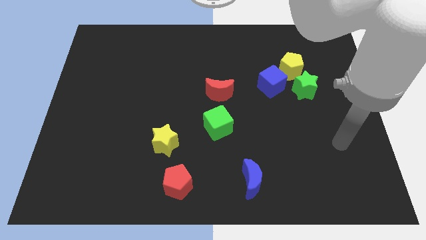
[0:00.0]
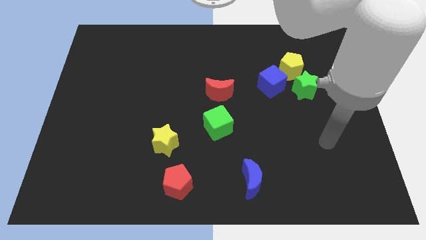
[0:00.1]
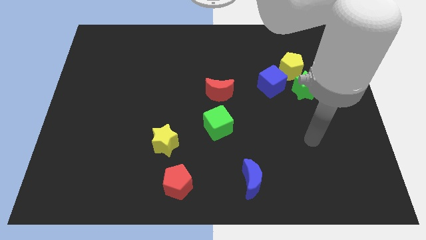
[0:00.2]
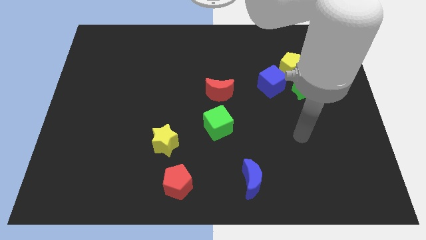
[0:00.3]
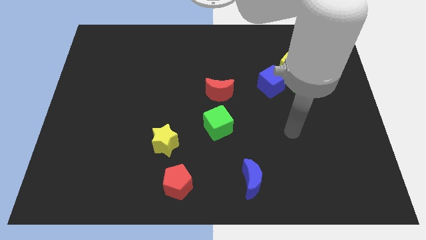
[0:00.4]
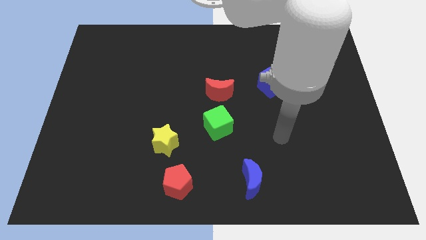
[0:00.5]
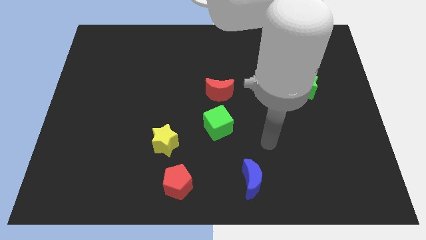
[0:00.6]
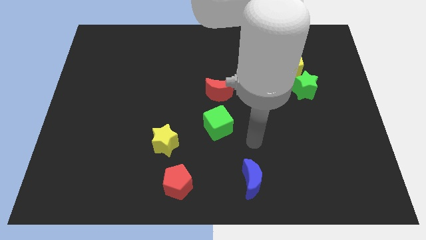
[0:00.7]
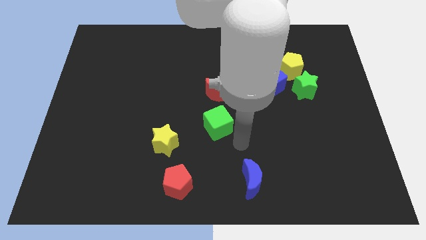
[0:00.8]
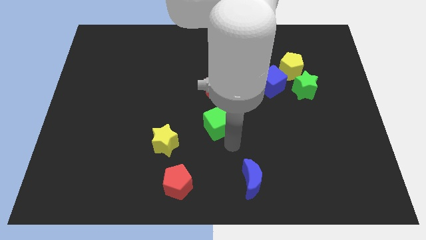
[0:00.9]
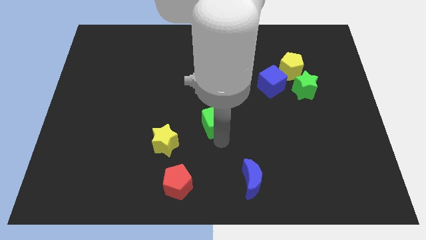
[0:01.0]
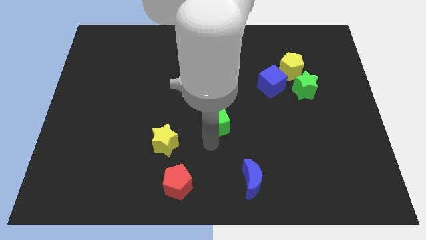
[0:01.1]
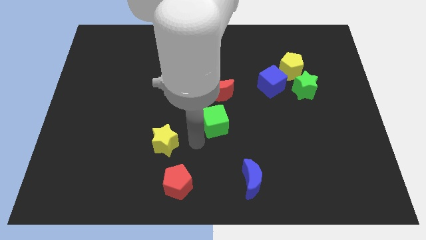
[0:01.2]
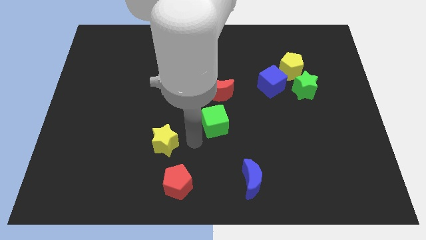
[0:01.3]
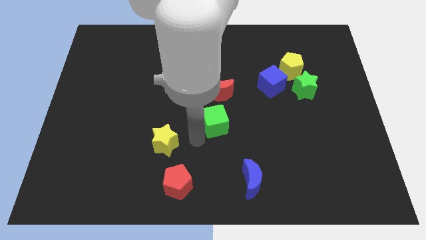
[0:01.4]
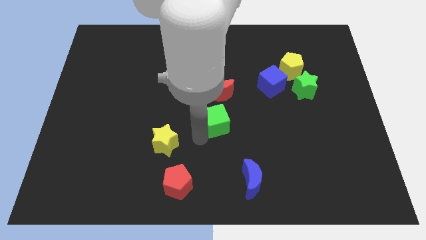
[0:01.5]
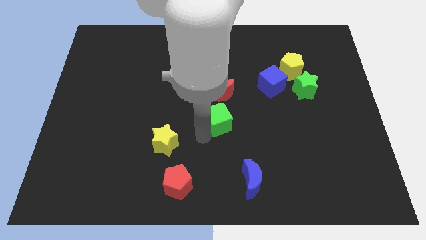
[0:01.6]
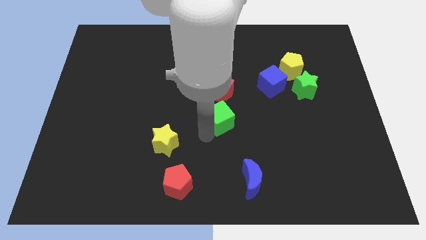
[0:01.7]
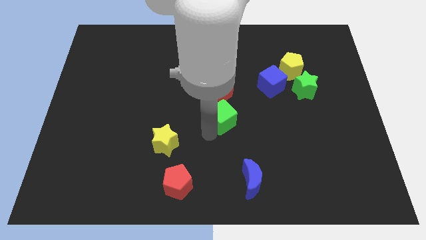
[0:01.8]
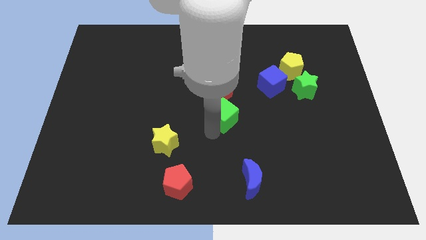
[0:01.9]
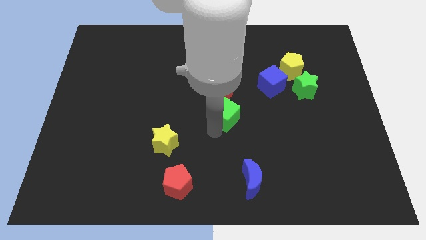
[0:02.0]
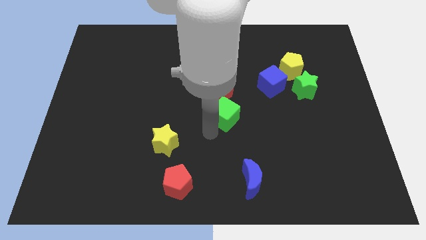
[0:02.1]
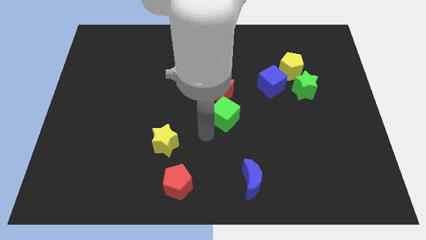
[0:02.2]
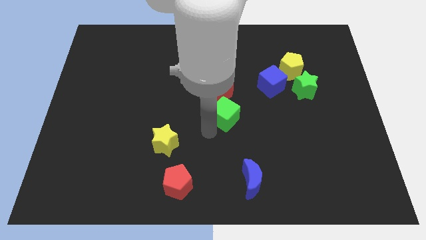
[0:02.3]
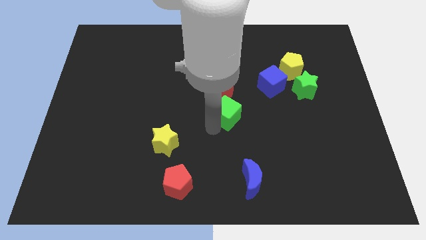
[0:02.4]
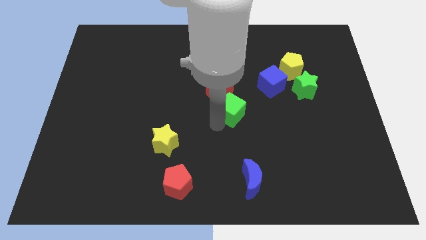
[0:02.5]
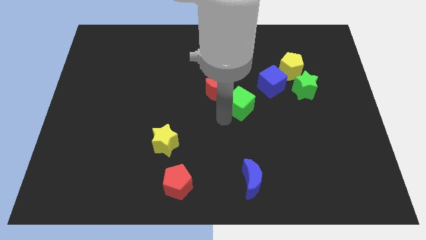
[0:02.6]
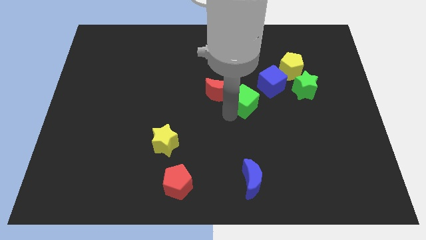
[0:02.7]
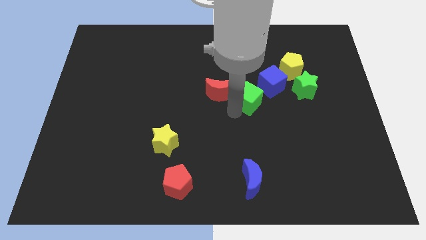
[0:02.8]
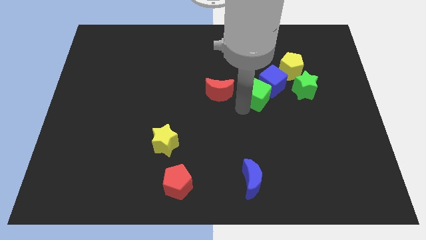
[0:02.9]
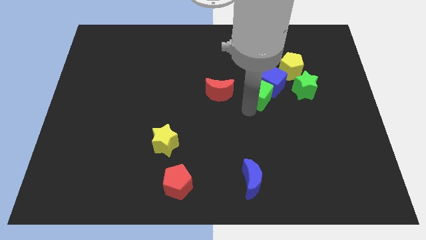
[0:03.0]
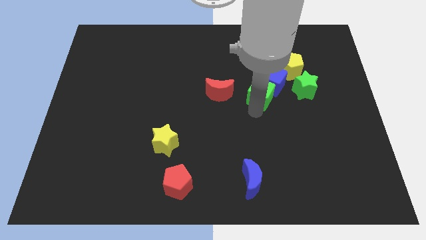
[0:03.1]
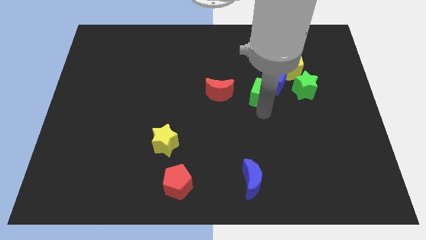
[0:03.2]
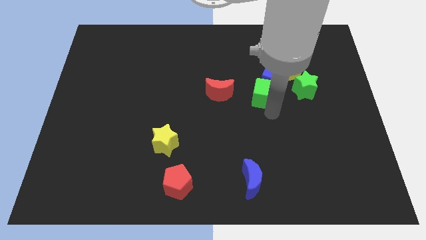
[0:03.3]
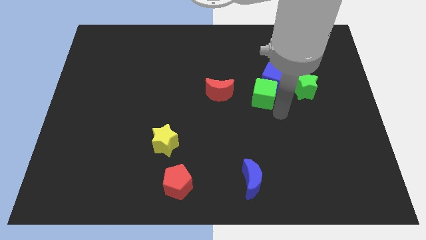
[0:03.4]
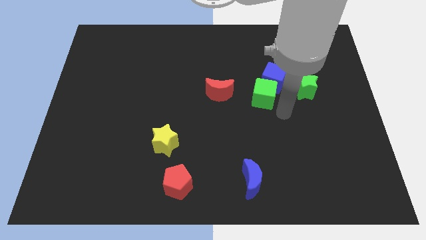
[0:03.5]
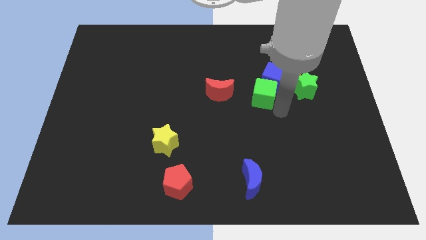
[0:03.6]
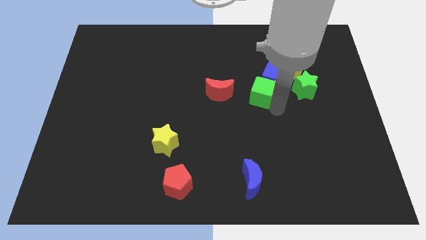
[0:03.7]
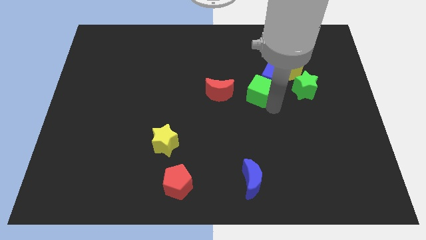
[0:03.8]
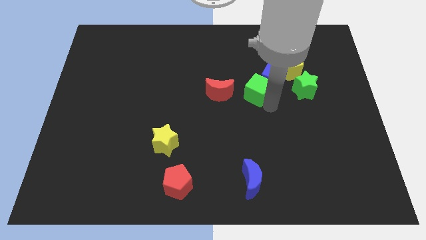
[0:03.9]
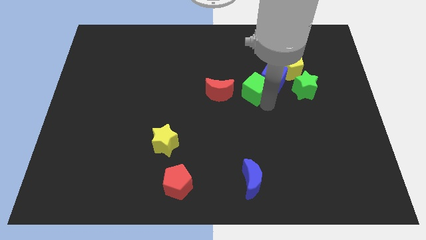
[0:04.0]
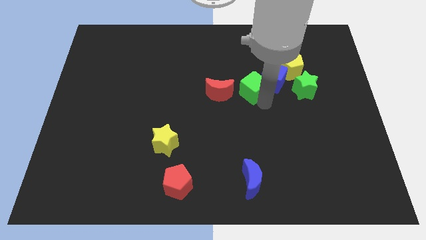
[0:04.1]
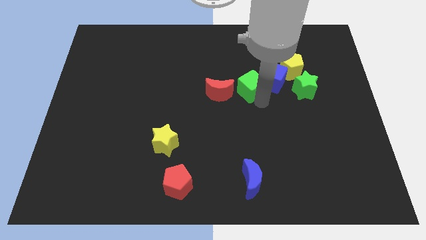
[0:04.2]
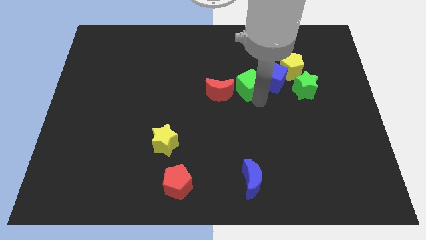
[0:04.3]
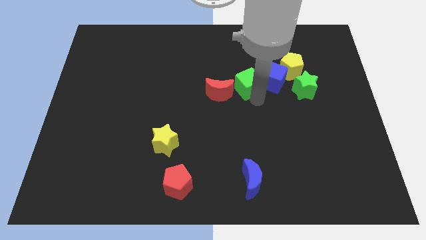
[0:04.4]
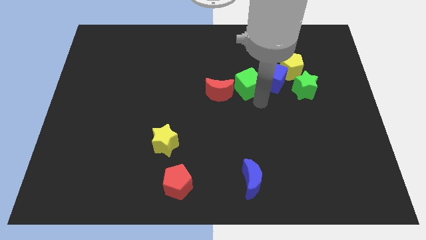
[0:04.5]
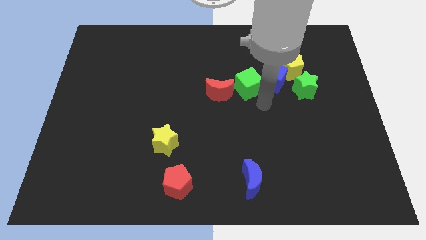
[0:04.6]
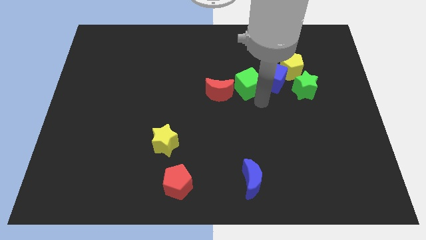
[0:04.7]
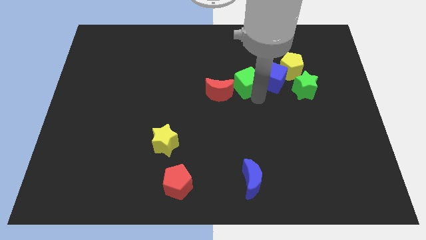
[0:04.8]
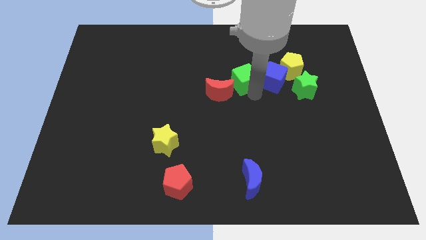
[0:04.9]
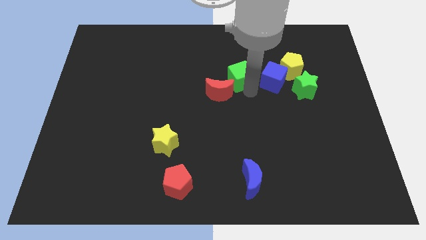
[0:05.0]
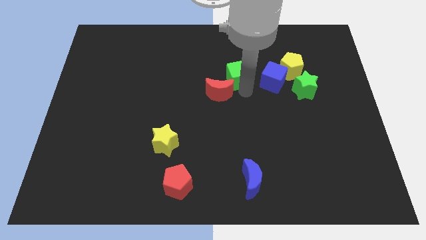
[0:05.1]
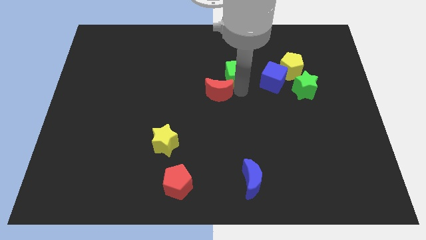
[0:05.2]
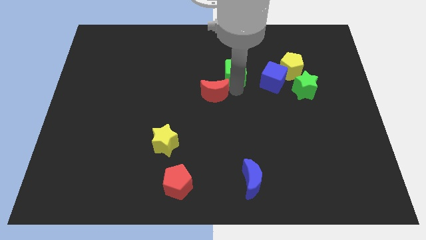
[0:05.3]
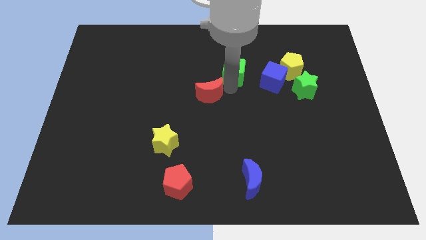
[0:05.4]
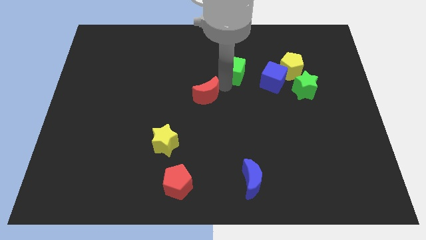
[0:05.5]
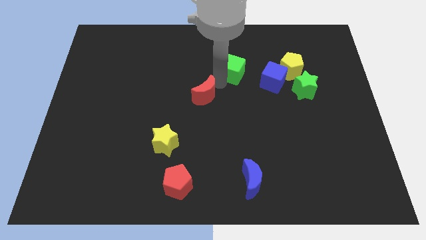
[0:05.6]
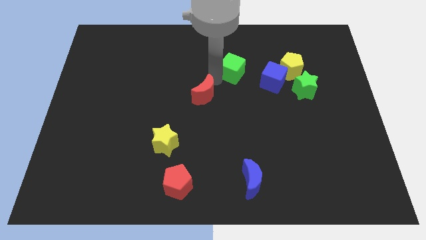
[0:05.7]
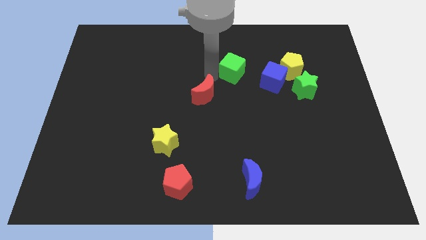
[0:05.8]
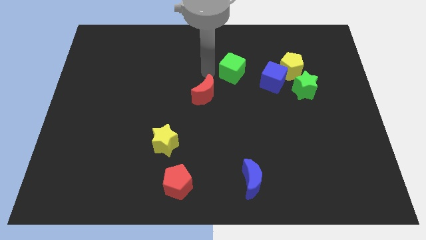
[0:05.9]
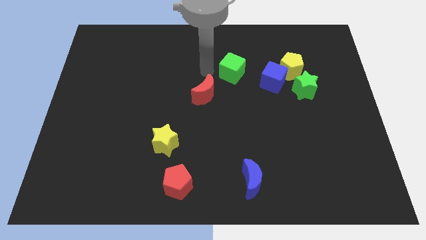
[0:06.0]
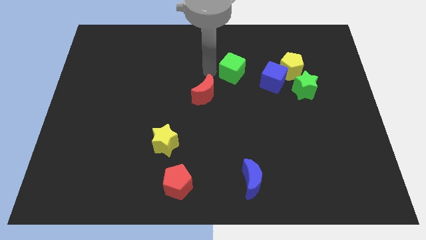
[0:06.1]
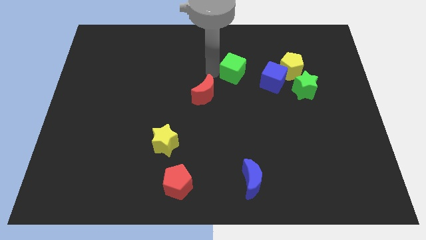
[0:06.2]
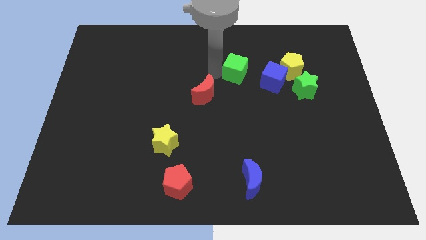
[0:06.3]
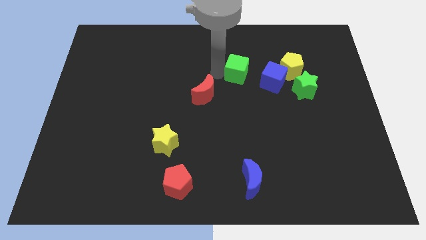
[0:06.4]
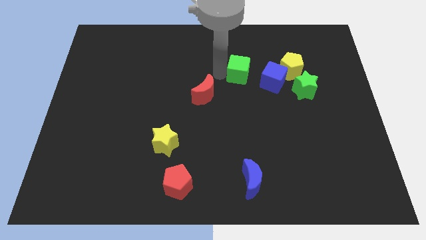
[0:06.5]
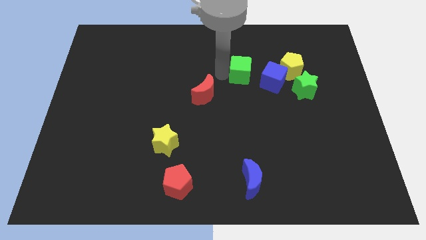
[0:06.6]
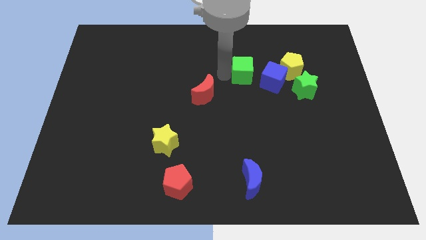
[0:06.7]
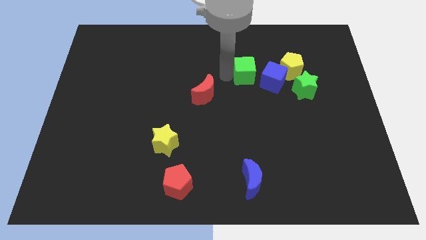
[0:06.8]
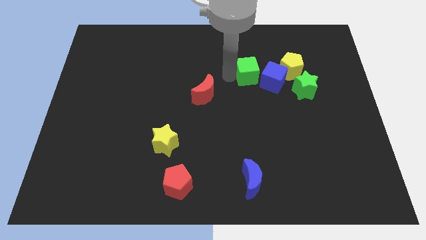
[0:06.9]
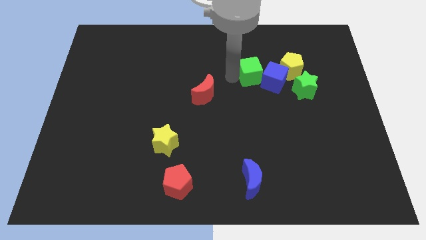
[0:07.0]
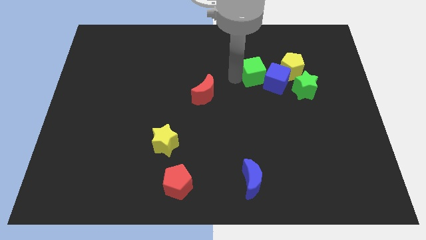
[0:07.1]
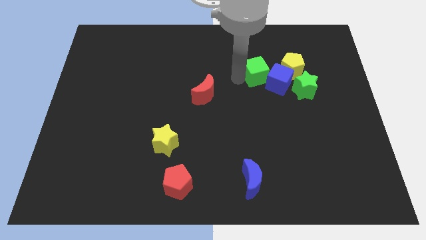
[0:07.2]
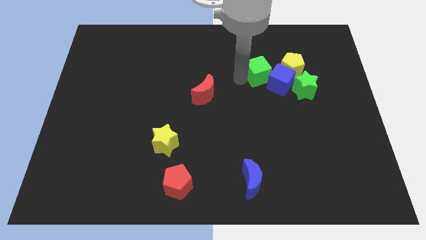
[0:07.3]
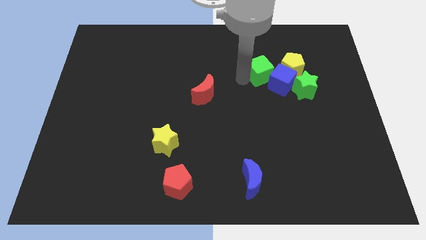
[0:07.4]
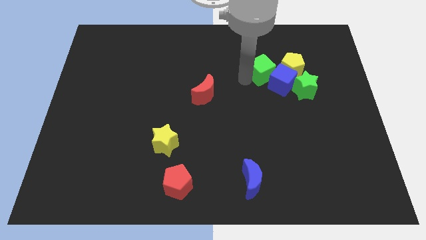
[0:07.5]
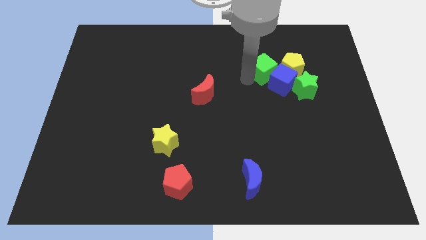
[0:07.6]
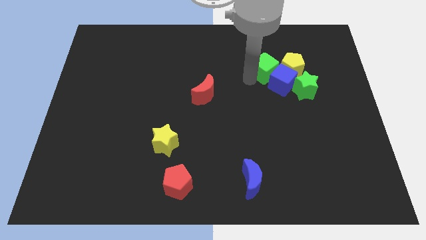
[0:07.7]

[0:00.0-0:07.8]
push the green cube upwards and then right
